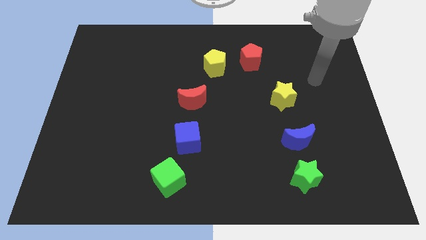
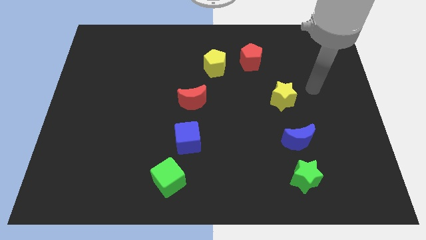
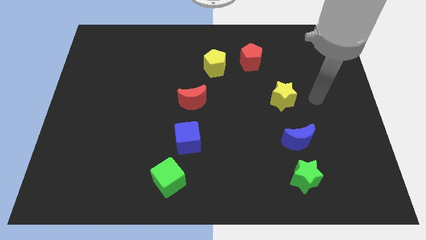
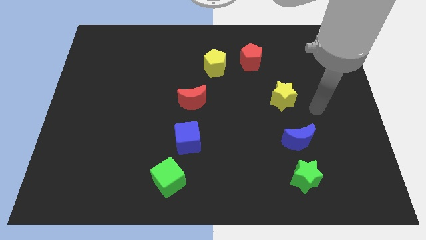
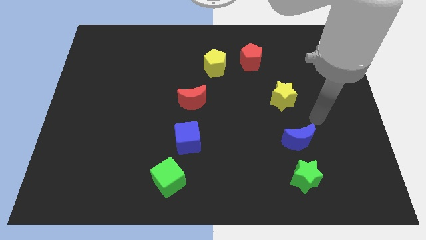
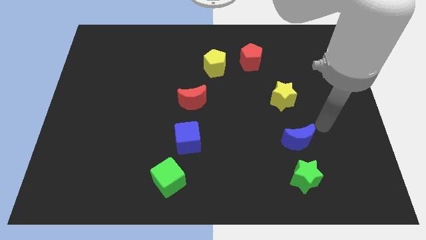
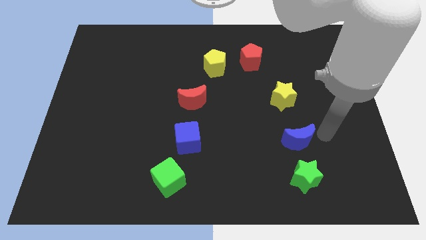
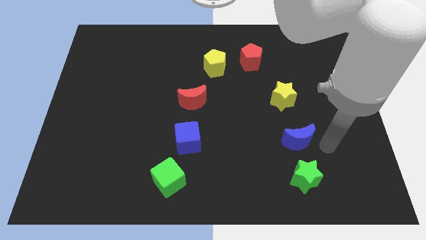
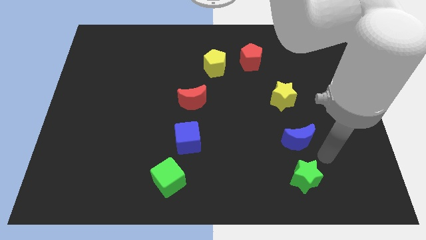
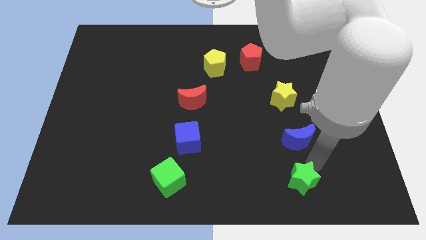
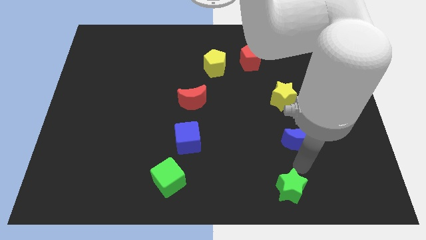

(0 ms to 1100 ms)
pull the blue moon apart from the green star

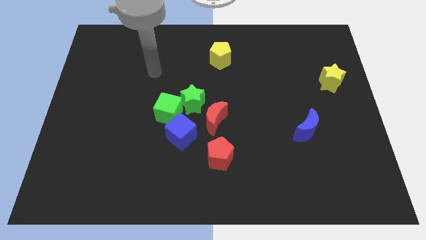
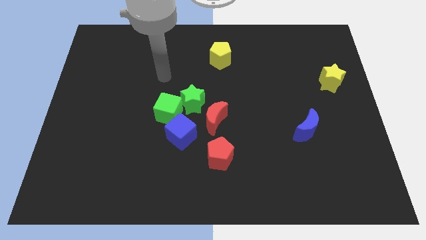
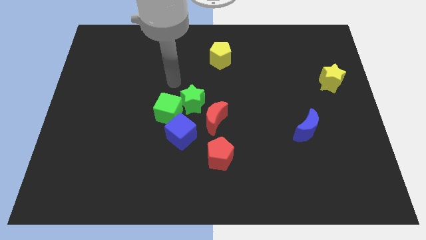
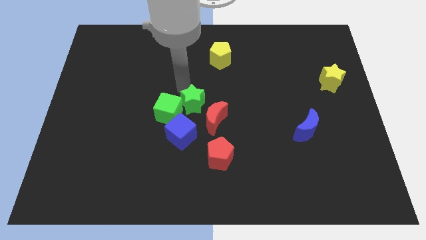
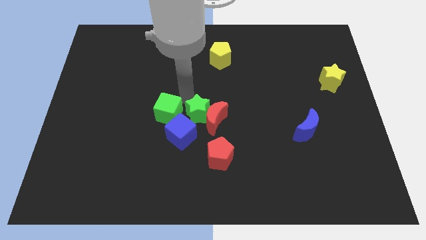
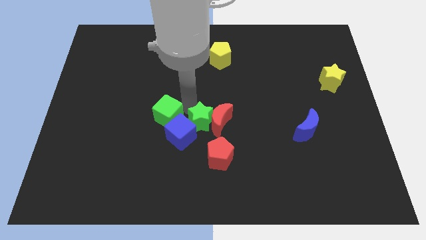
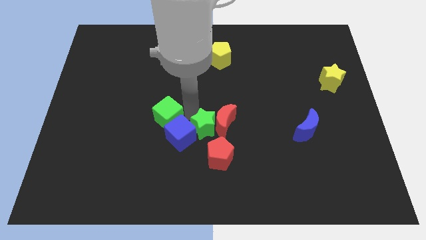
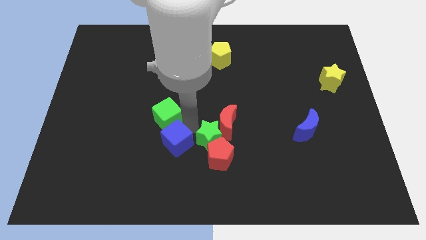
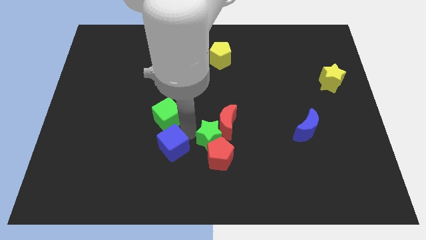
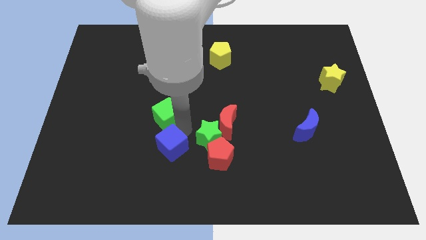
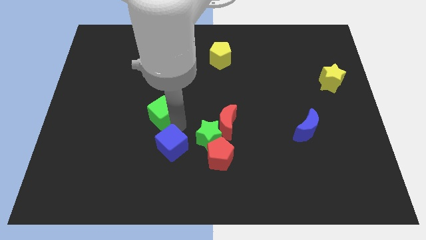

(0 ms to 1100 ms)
move the green cube away from the green star and blue cube

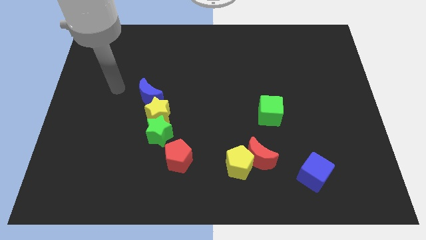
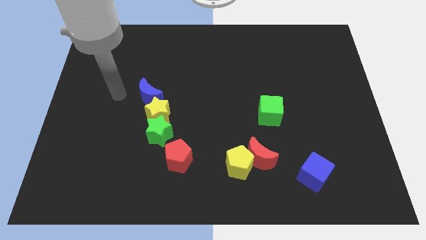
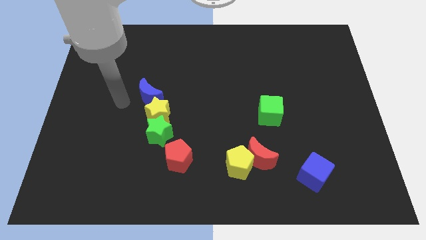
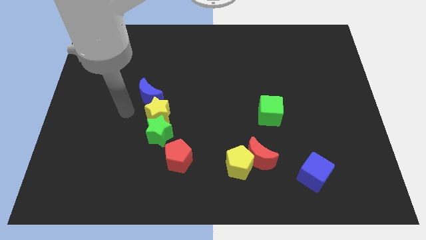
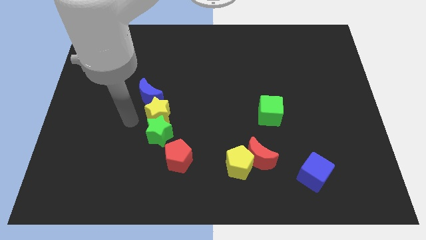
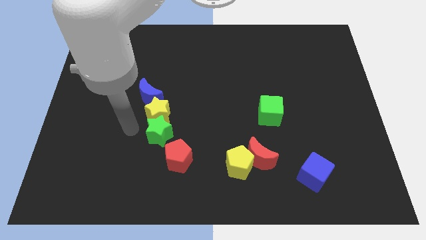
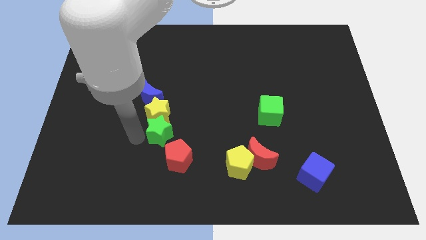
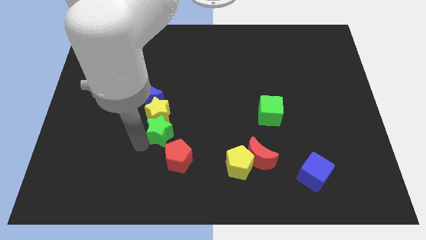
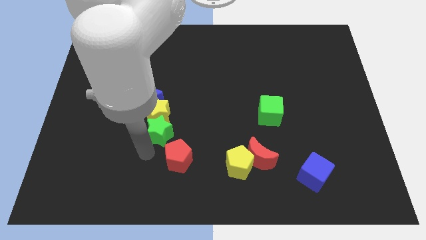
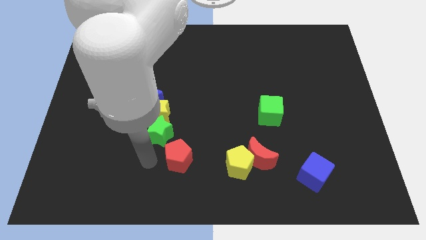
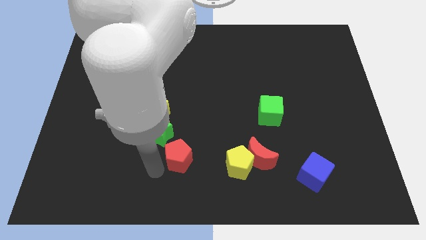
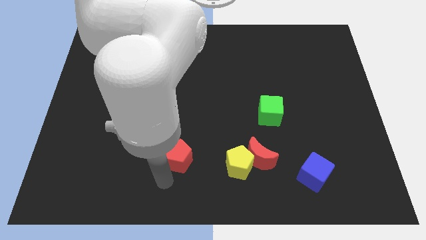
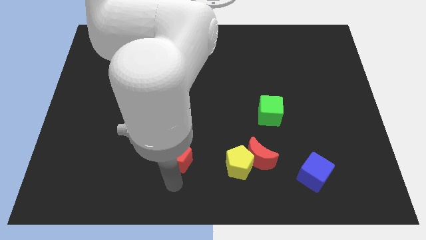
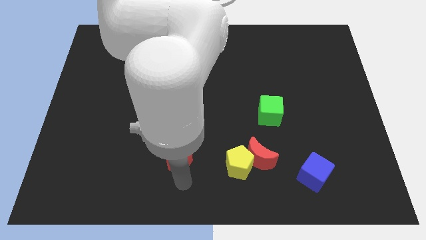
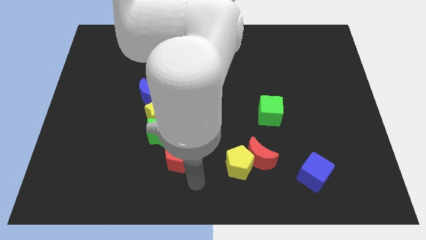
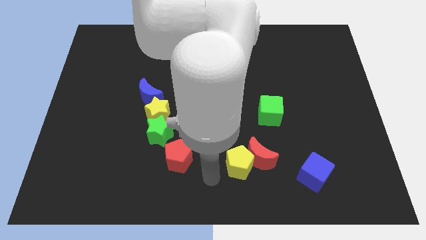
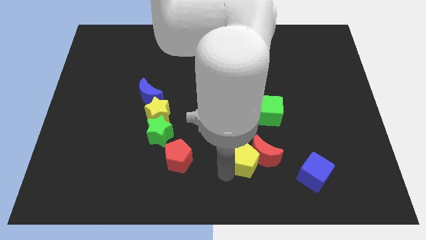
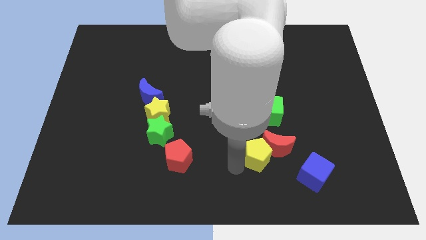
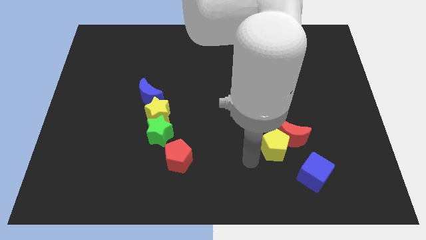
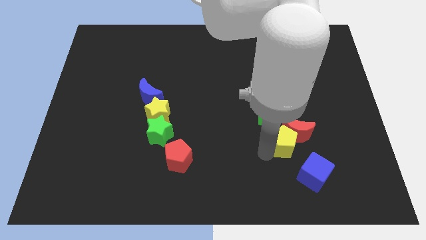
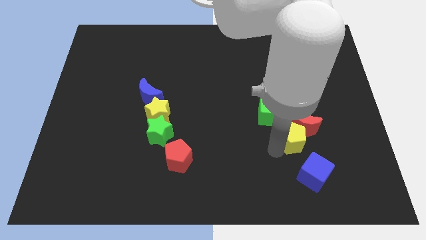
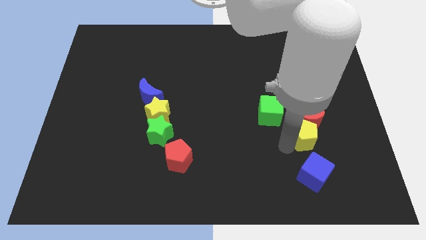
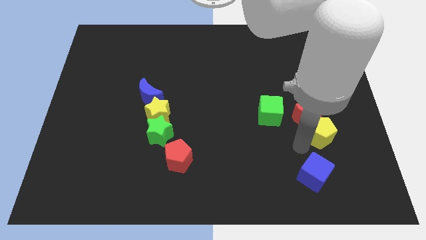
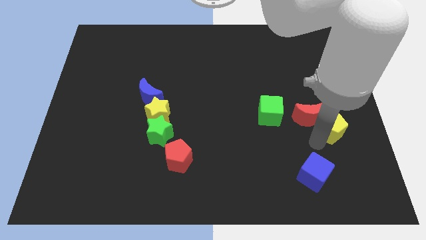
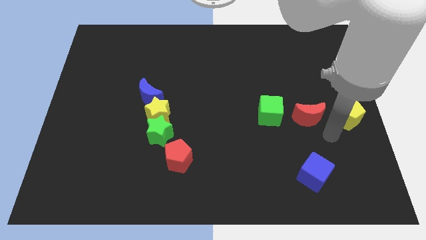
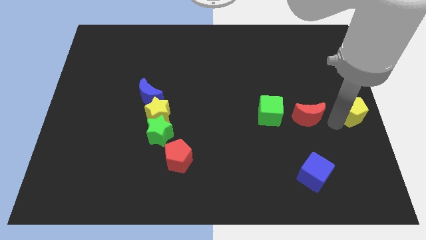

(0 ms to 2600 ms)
move the red moon away from the yellow pentagon

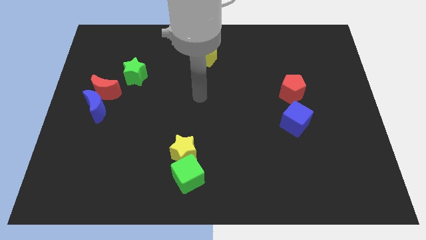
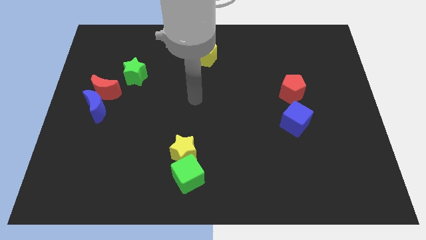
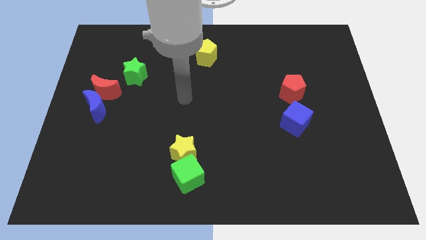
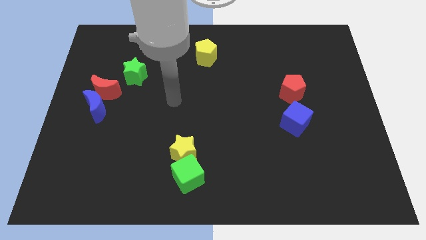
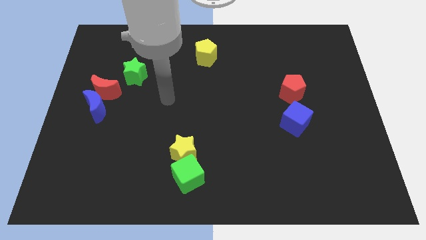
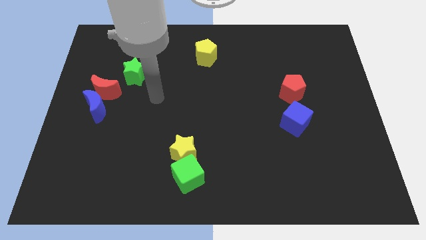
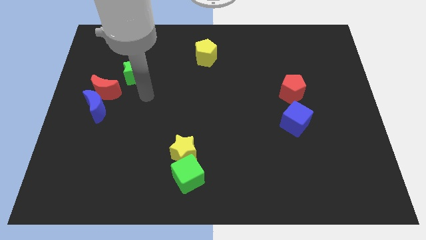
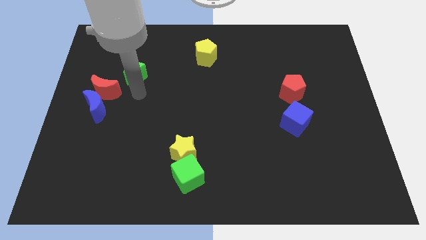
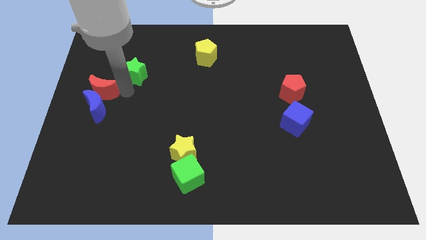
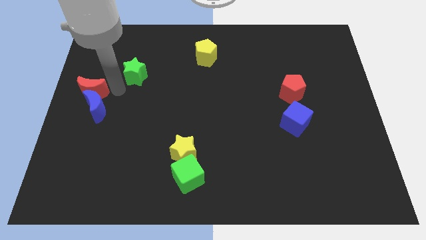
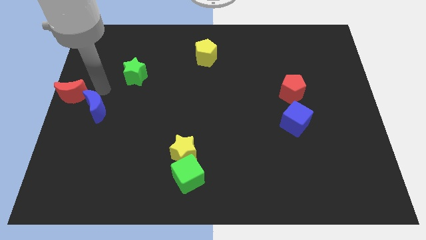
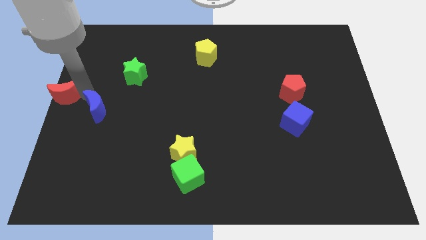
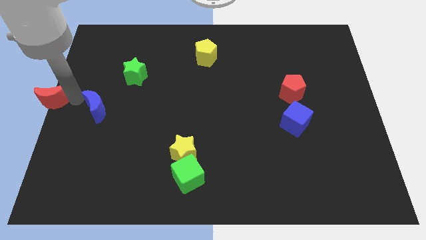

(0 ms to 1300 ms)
separate the blue moon from the red moon

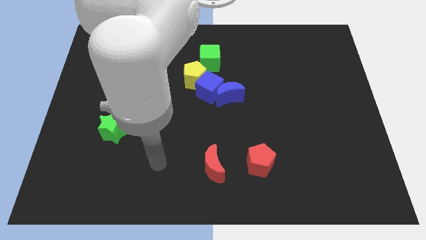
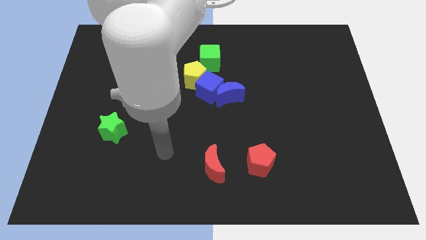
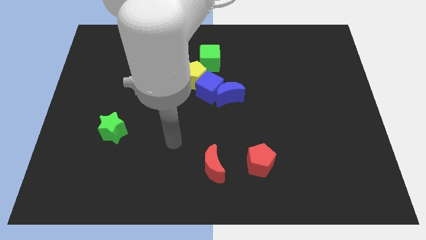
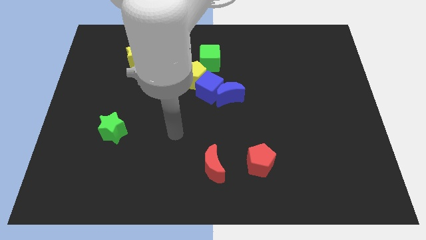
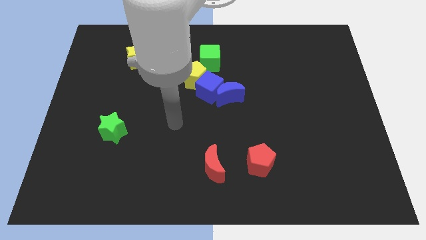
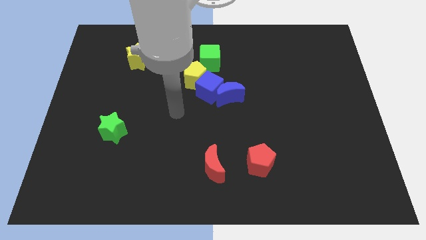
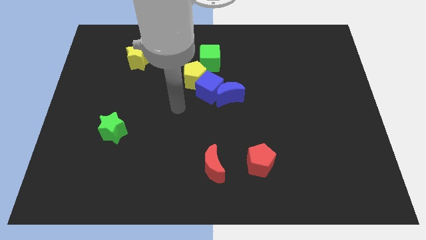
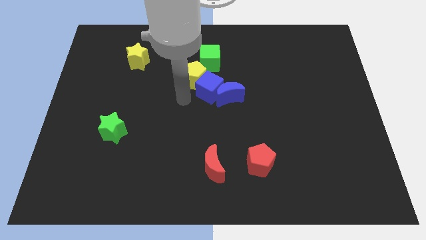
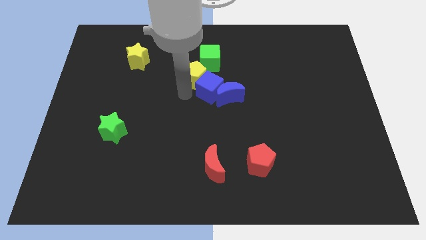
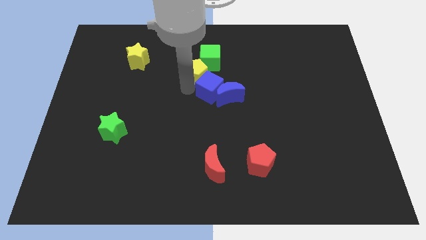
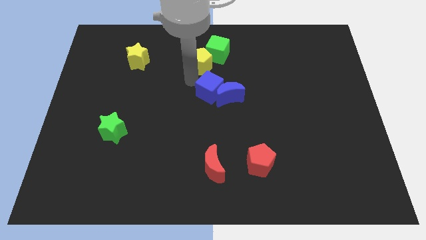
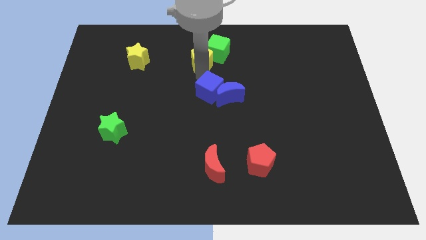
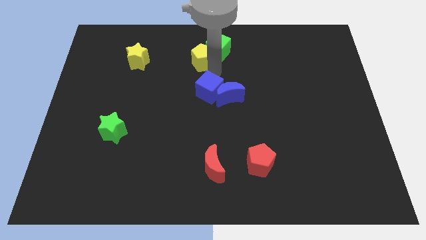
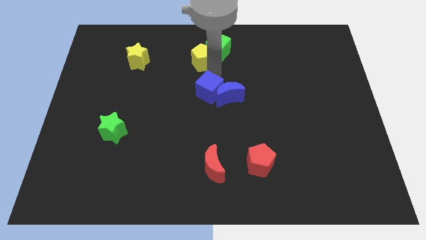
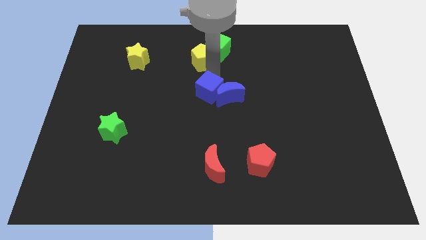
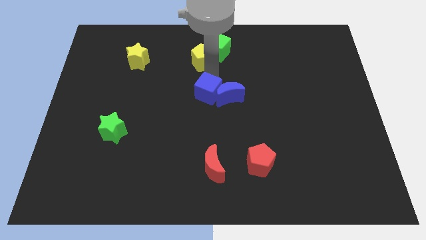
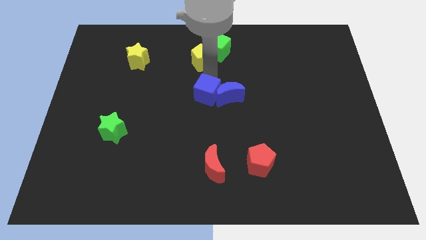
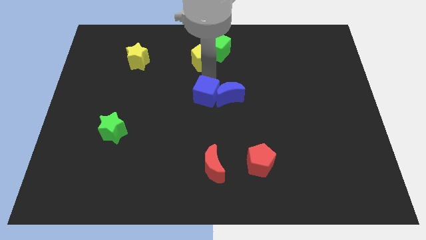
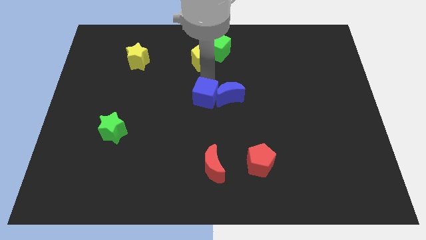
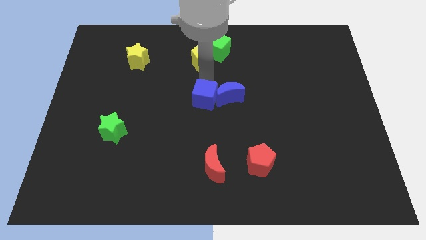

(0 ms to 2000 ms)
separate the blue cube from the blue moon, yellow pentagon, and green cube

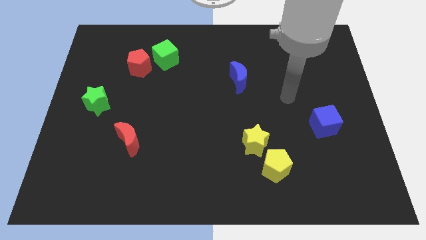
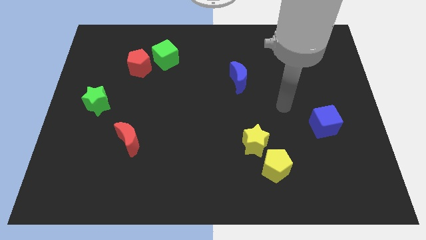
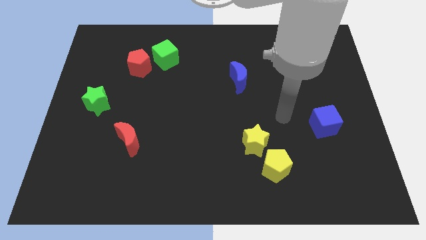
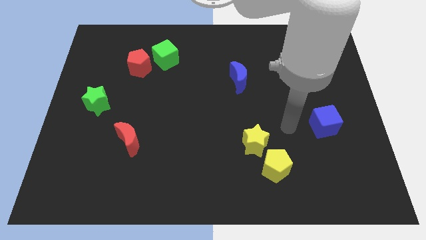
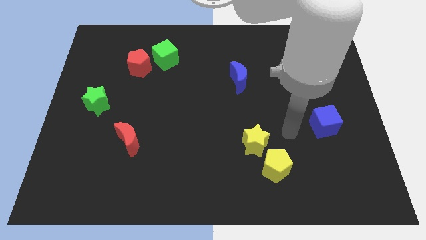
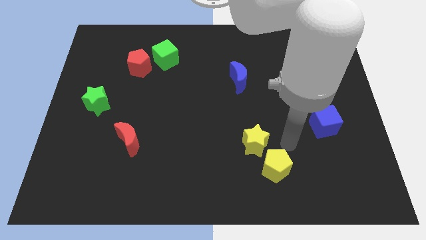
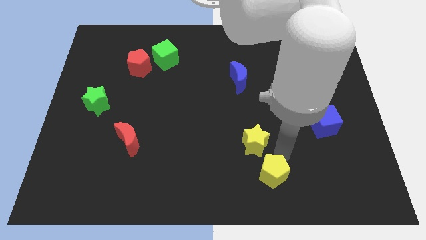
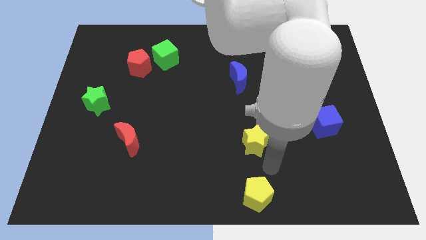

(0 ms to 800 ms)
move the yellow star away from the yellow pentagon

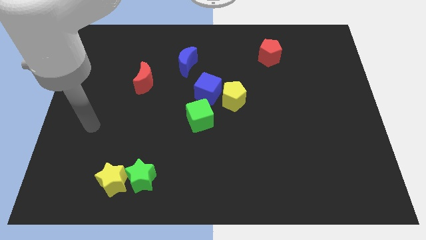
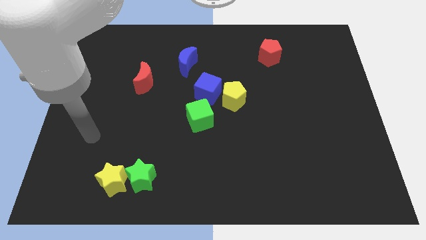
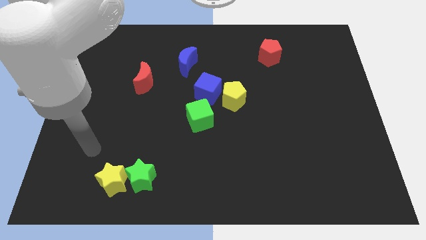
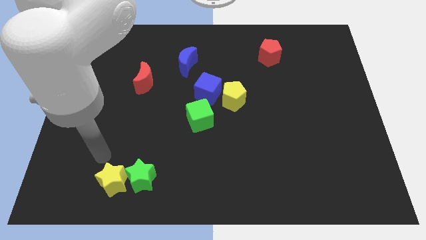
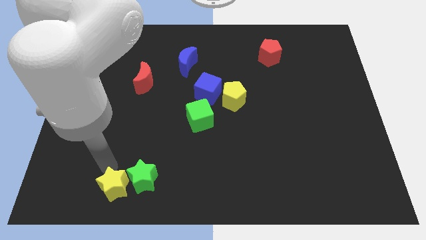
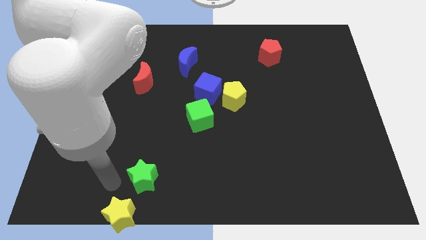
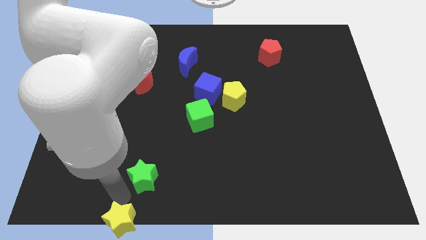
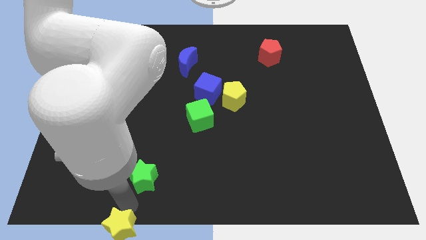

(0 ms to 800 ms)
pull the green star apart from the yellow star
